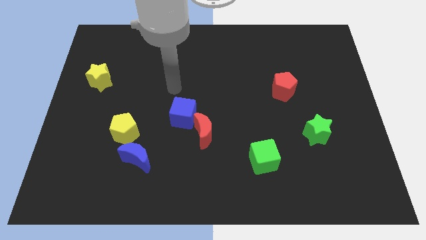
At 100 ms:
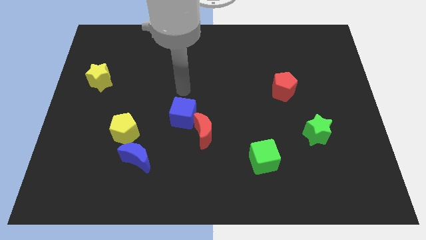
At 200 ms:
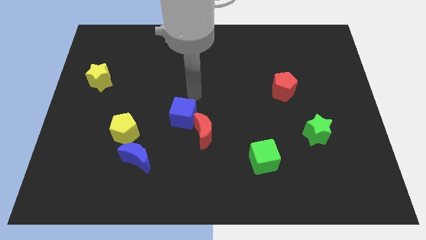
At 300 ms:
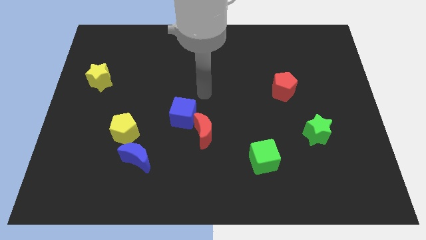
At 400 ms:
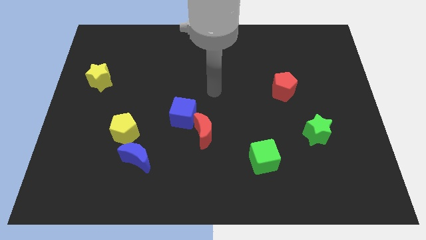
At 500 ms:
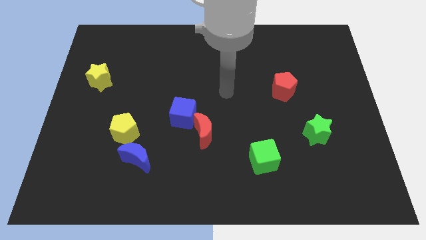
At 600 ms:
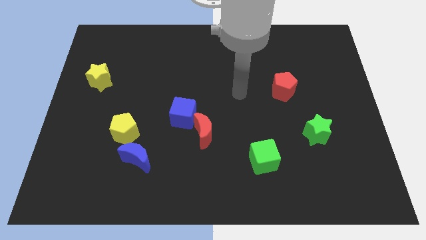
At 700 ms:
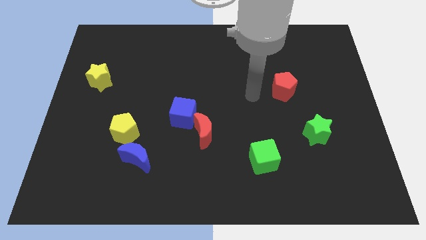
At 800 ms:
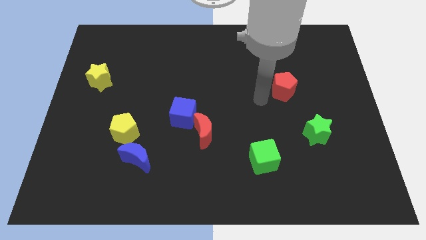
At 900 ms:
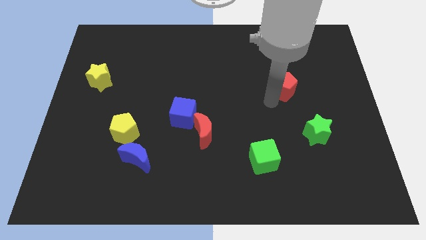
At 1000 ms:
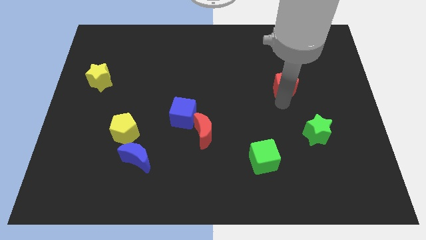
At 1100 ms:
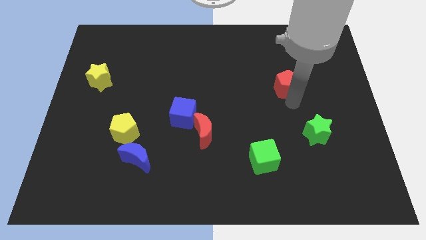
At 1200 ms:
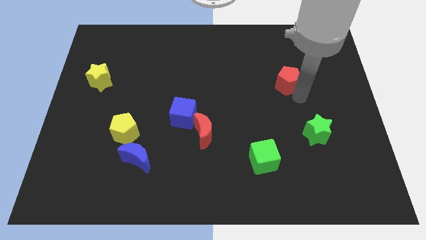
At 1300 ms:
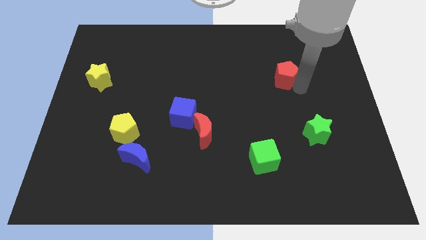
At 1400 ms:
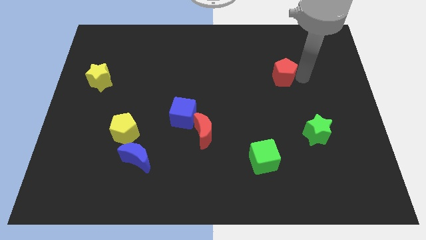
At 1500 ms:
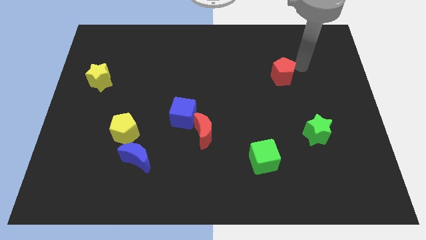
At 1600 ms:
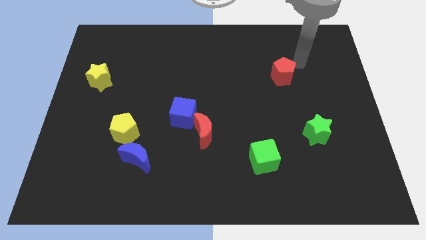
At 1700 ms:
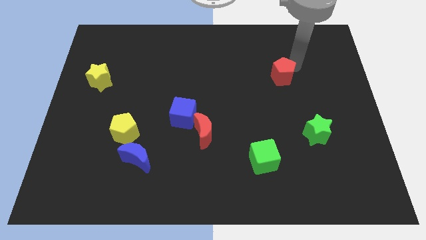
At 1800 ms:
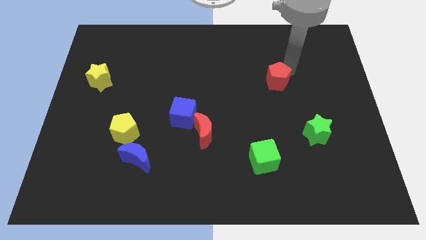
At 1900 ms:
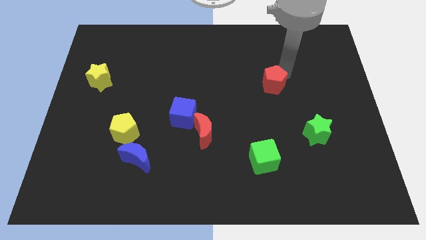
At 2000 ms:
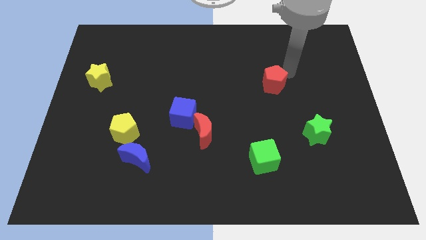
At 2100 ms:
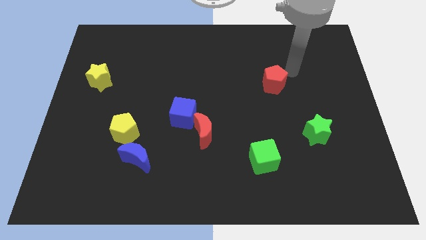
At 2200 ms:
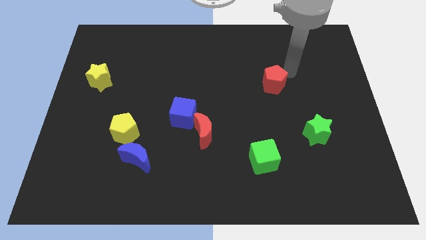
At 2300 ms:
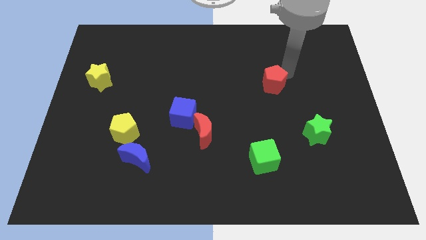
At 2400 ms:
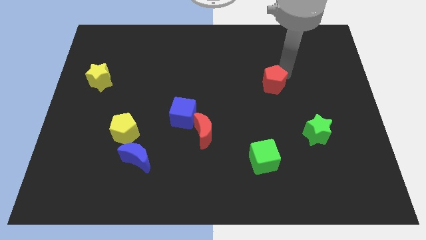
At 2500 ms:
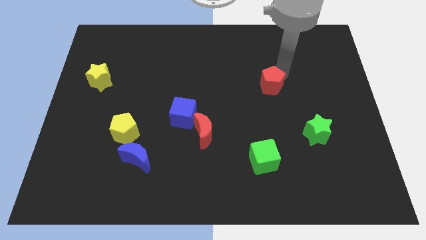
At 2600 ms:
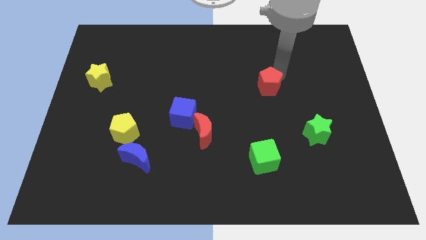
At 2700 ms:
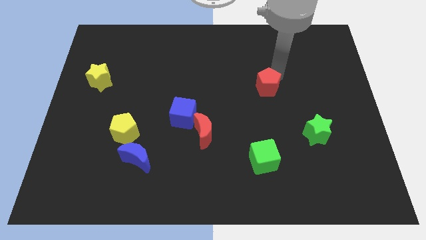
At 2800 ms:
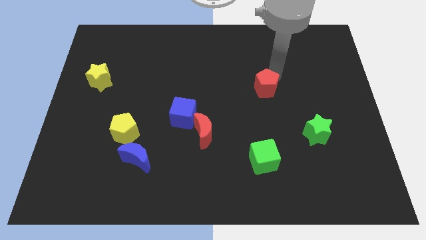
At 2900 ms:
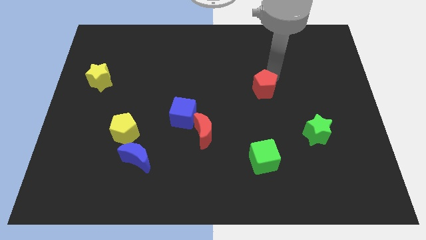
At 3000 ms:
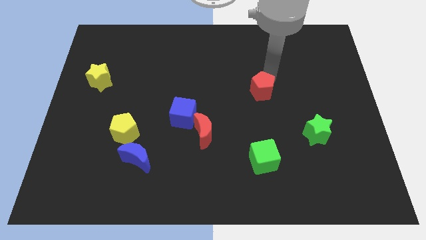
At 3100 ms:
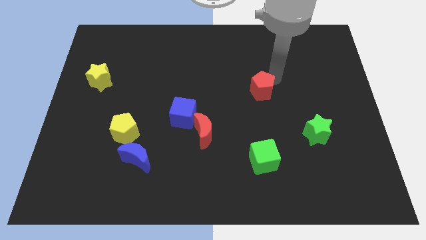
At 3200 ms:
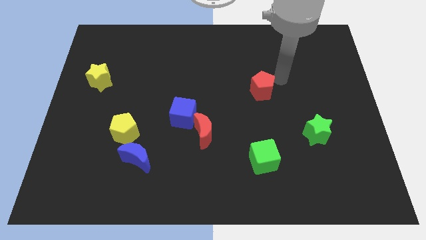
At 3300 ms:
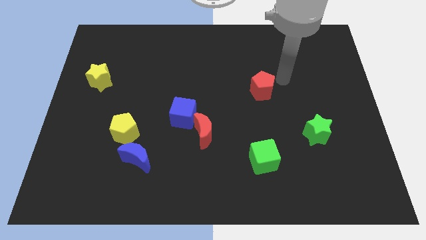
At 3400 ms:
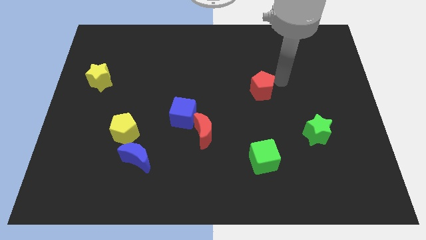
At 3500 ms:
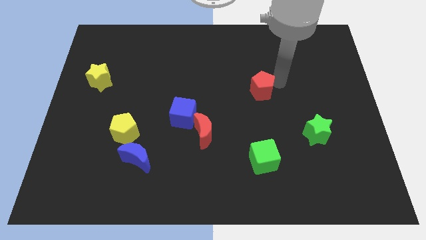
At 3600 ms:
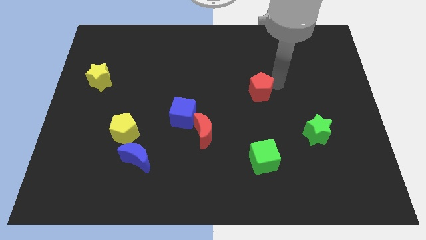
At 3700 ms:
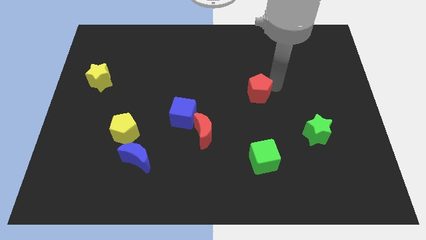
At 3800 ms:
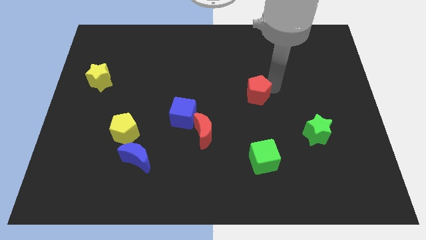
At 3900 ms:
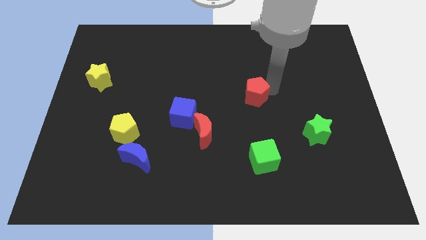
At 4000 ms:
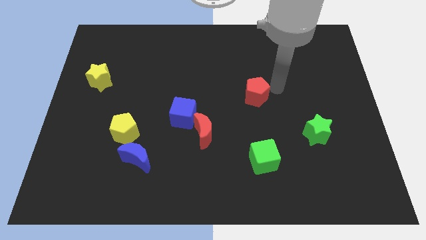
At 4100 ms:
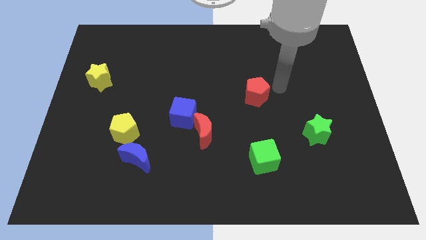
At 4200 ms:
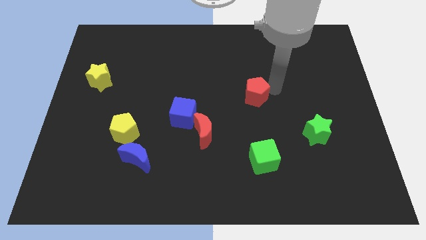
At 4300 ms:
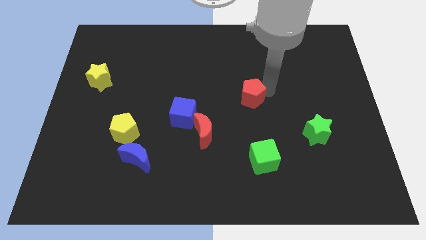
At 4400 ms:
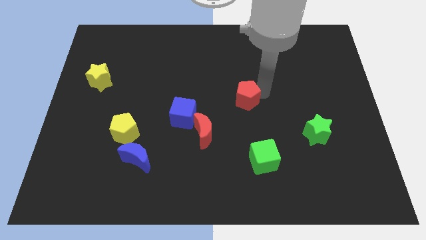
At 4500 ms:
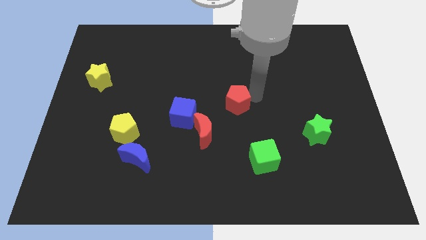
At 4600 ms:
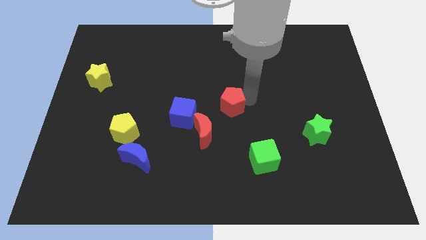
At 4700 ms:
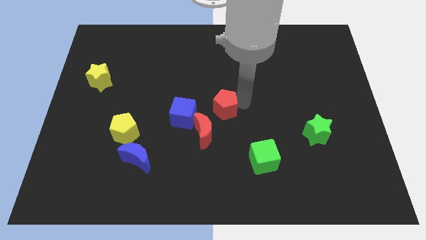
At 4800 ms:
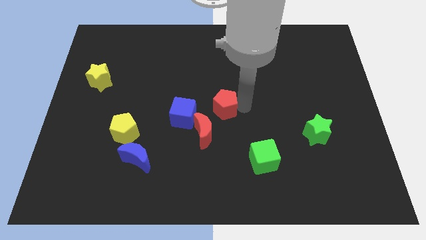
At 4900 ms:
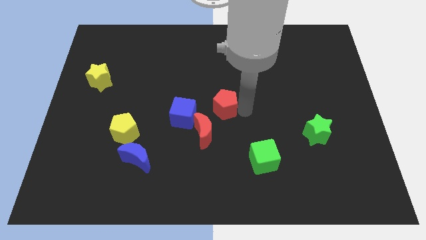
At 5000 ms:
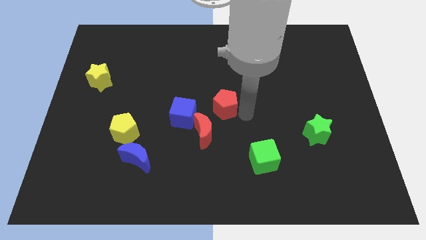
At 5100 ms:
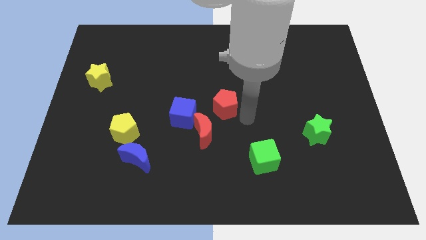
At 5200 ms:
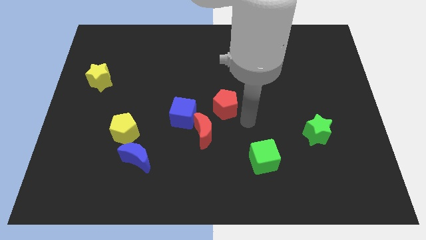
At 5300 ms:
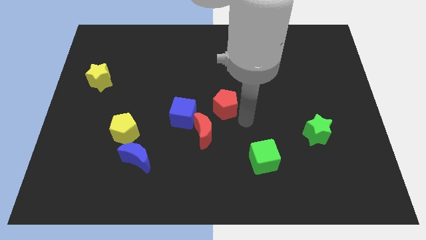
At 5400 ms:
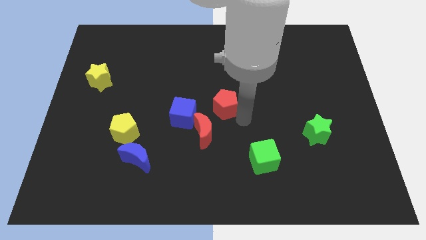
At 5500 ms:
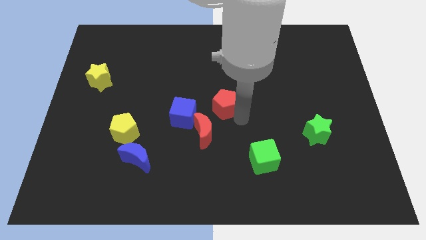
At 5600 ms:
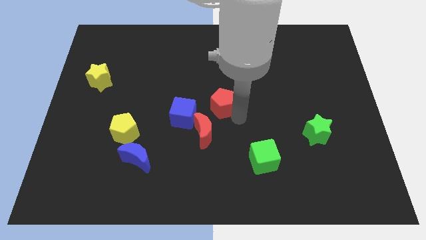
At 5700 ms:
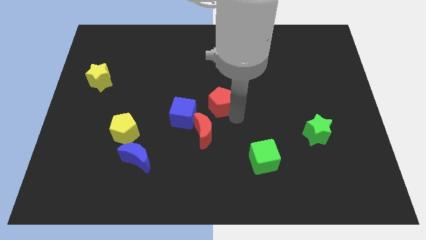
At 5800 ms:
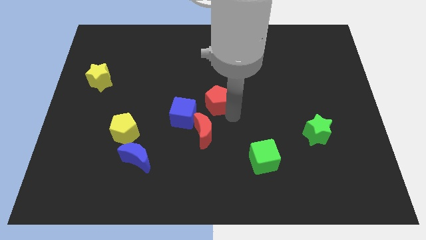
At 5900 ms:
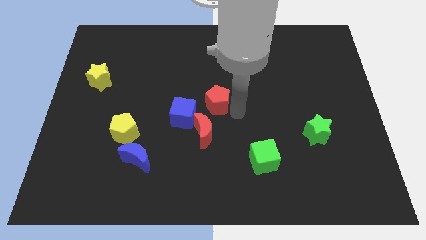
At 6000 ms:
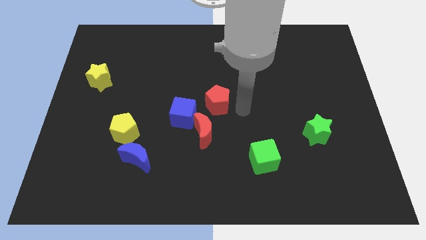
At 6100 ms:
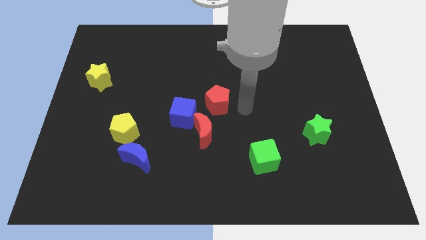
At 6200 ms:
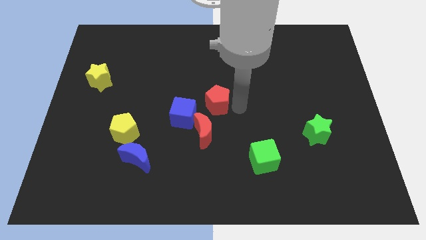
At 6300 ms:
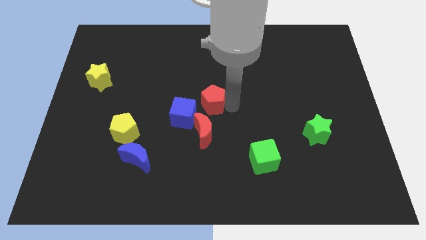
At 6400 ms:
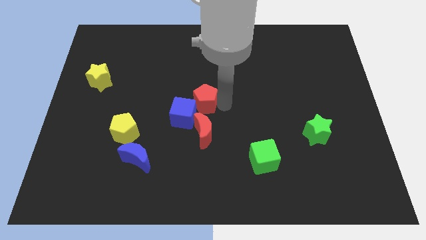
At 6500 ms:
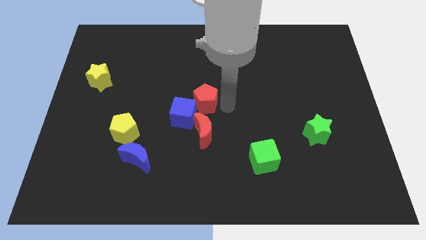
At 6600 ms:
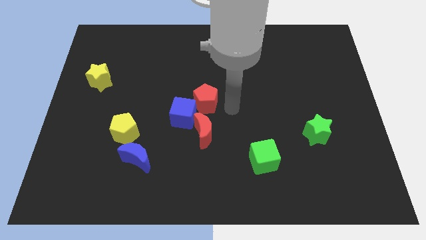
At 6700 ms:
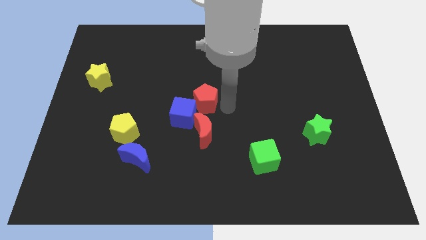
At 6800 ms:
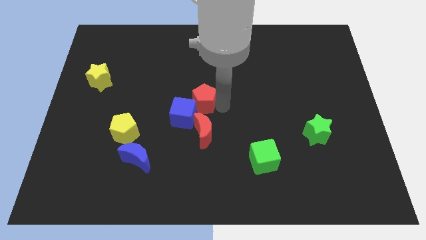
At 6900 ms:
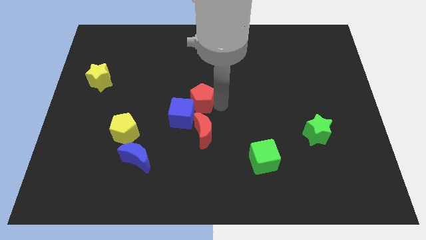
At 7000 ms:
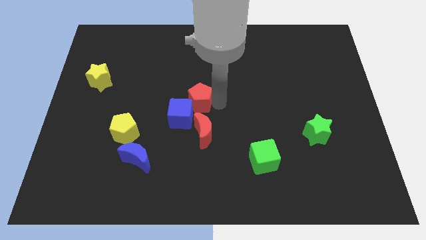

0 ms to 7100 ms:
move the red pentagon to the left

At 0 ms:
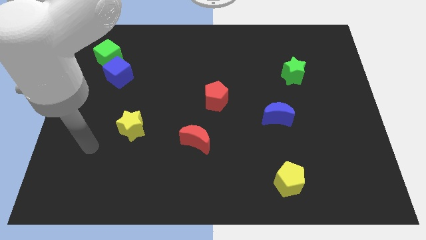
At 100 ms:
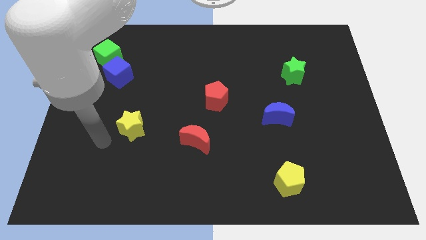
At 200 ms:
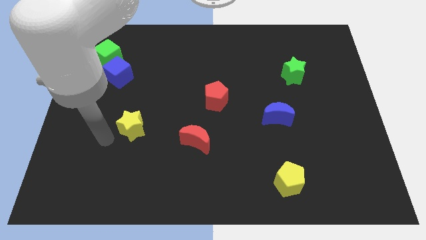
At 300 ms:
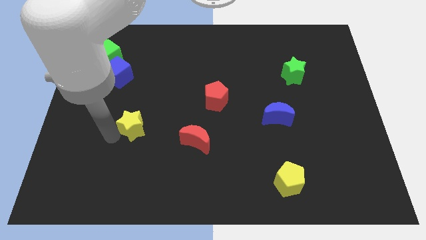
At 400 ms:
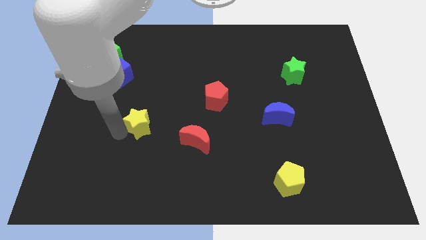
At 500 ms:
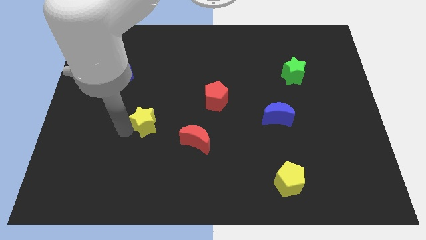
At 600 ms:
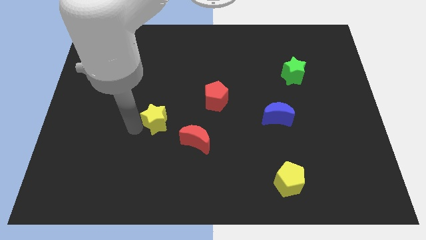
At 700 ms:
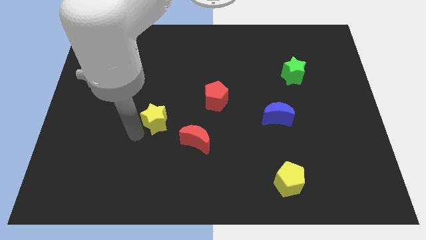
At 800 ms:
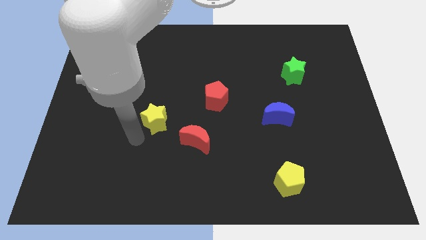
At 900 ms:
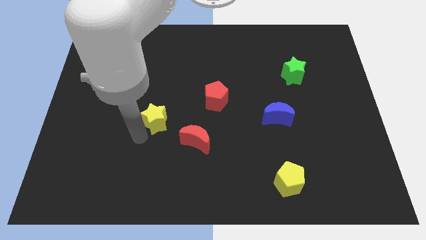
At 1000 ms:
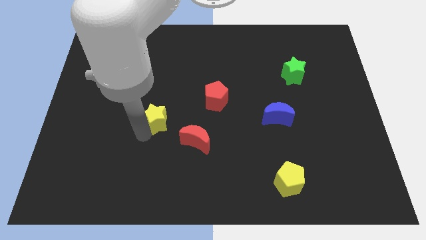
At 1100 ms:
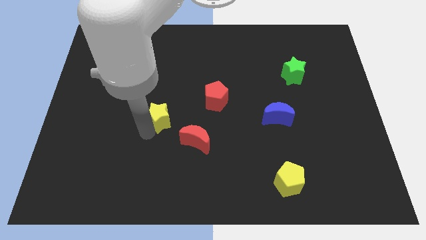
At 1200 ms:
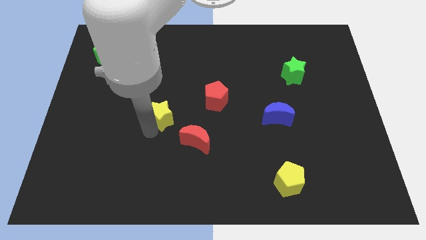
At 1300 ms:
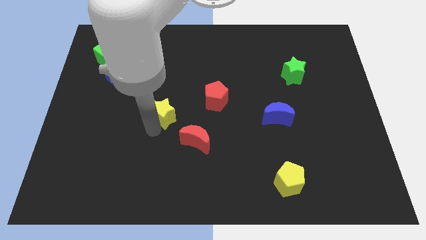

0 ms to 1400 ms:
slightly push the yellow star upwards and right

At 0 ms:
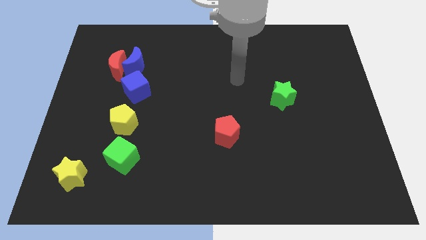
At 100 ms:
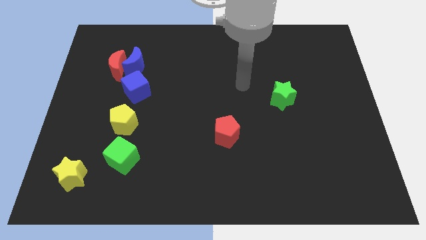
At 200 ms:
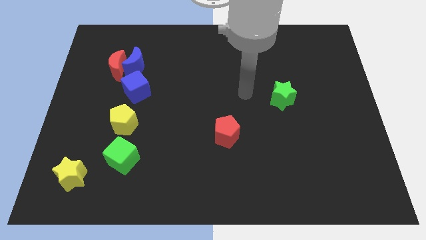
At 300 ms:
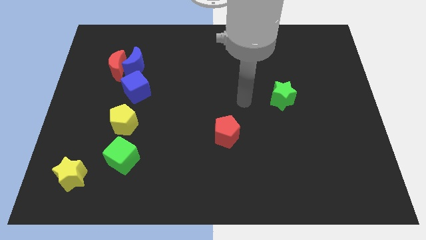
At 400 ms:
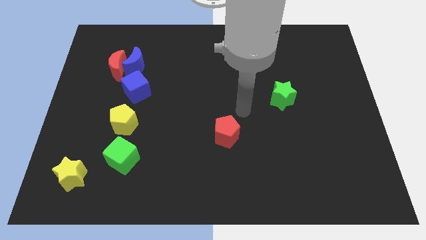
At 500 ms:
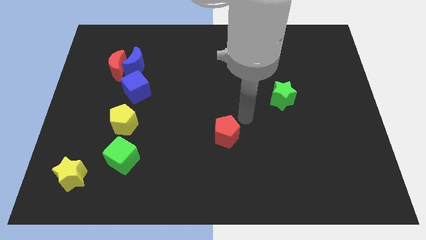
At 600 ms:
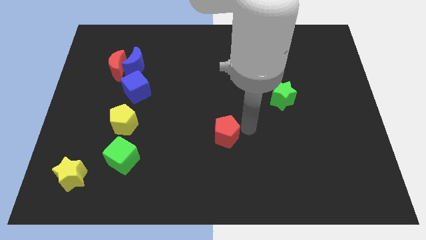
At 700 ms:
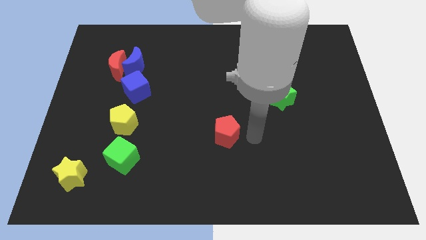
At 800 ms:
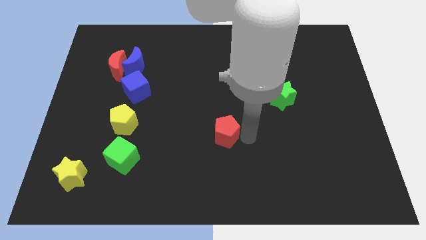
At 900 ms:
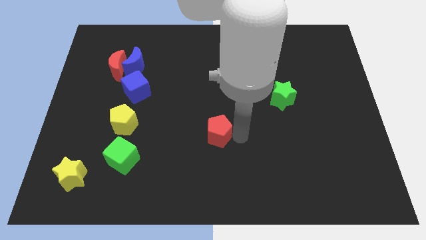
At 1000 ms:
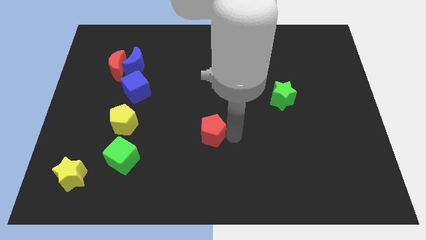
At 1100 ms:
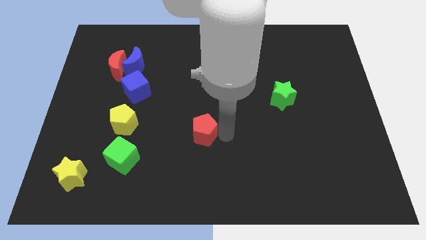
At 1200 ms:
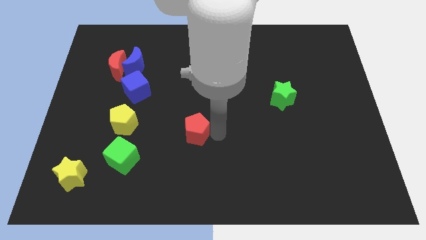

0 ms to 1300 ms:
slightly slide the red pentagon to the left
